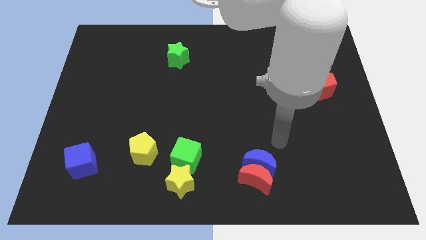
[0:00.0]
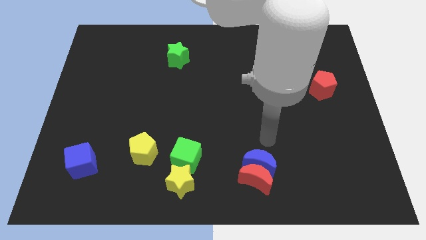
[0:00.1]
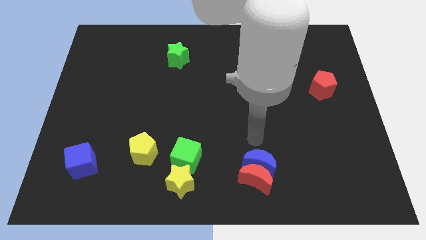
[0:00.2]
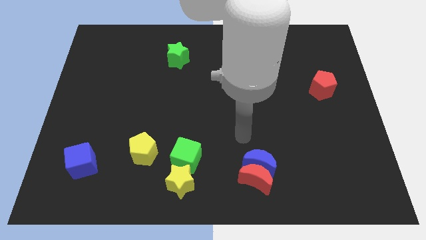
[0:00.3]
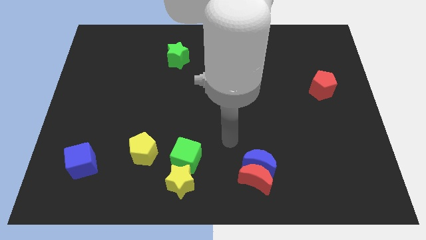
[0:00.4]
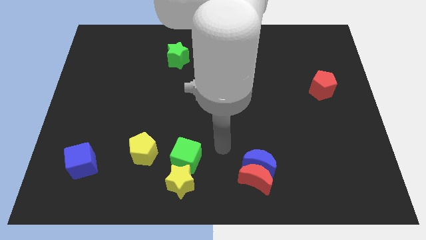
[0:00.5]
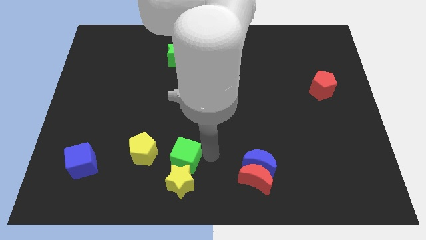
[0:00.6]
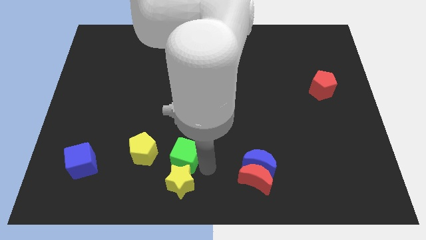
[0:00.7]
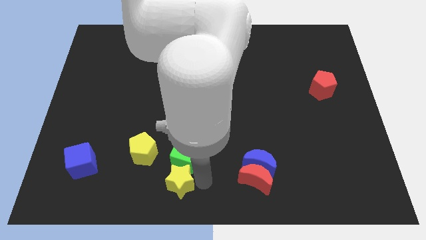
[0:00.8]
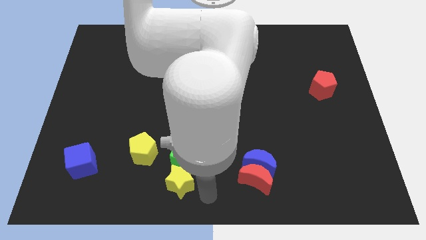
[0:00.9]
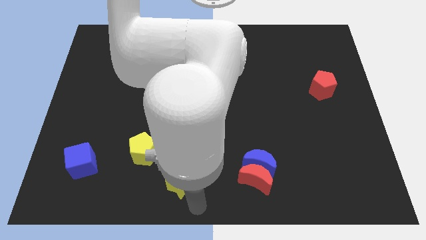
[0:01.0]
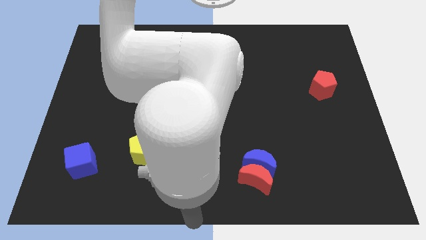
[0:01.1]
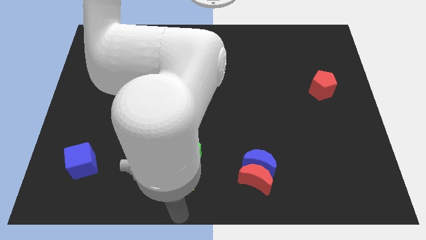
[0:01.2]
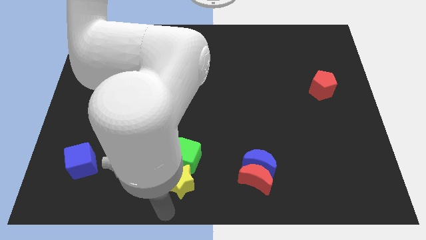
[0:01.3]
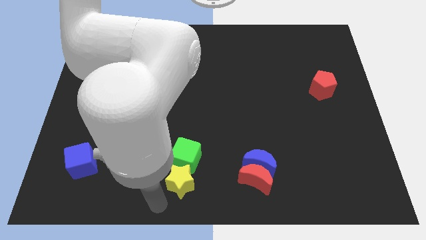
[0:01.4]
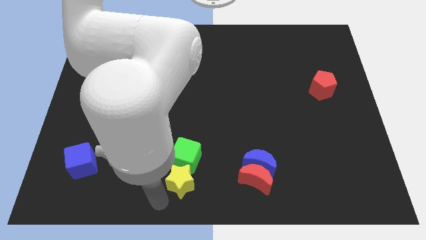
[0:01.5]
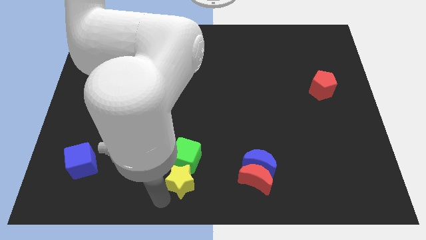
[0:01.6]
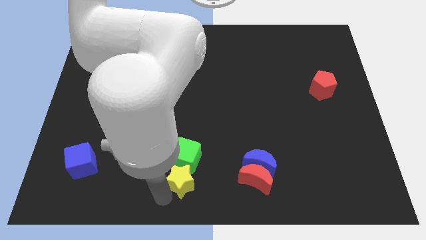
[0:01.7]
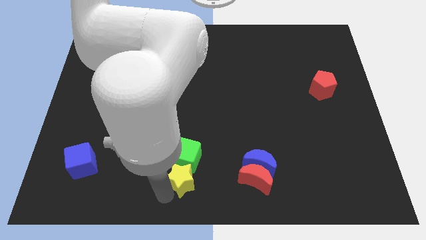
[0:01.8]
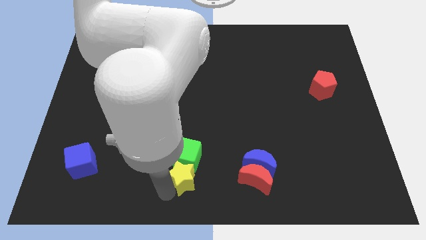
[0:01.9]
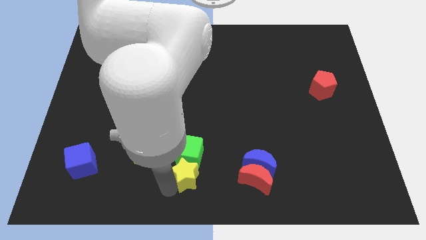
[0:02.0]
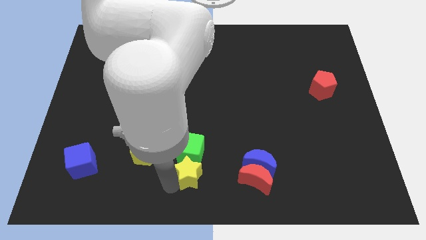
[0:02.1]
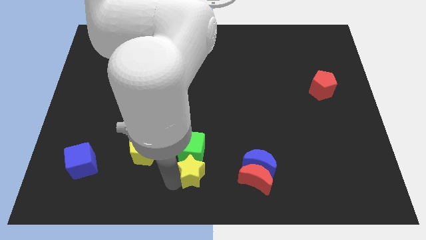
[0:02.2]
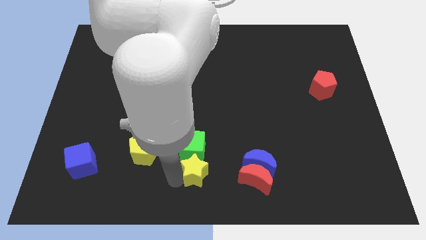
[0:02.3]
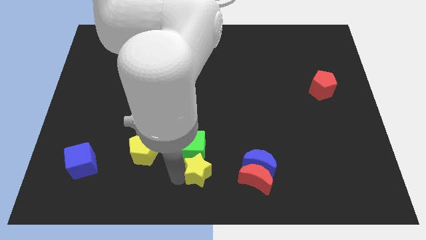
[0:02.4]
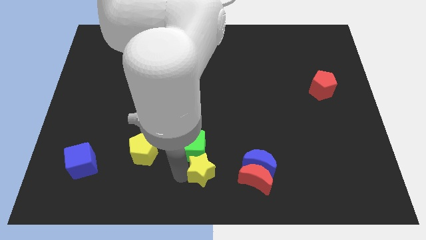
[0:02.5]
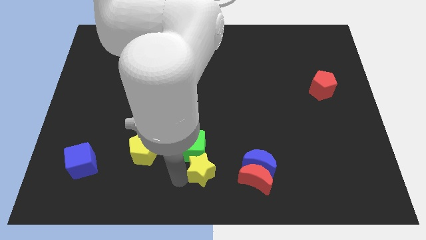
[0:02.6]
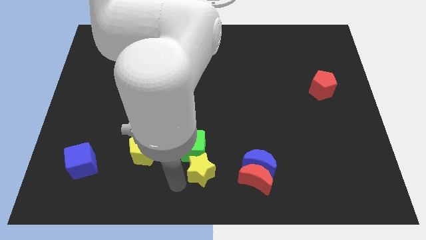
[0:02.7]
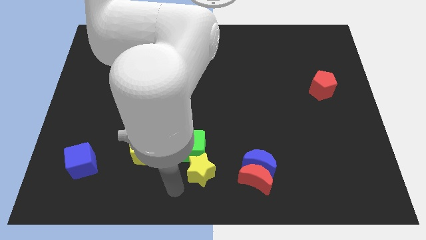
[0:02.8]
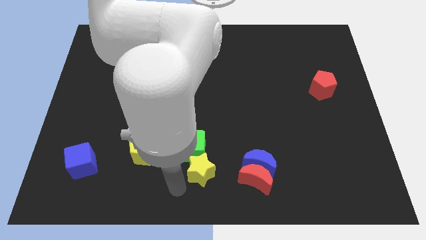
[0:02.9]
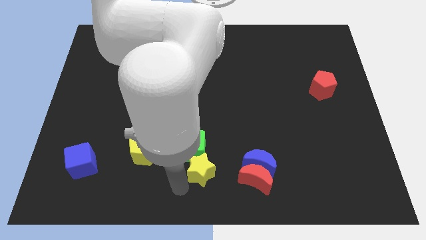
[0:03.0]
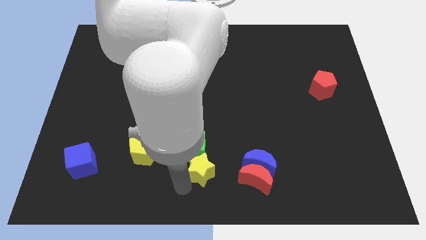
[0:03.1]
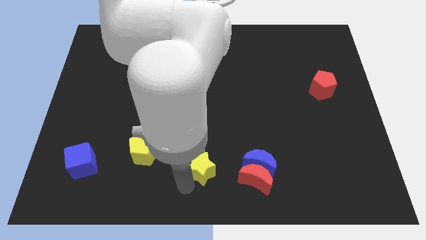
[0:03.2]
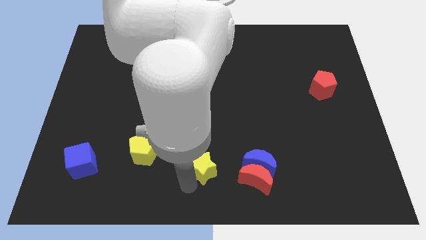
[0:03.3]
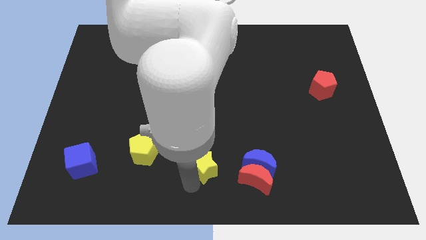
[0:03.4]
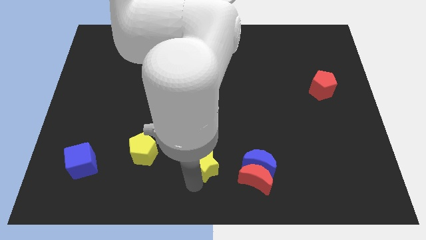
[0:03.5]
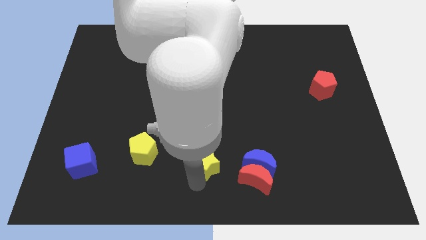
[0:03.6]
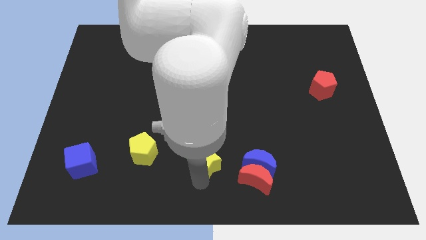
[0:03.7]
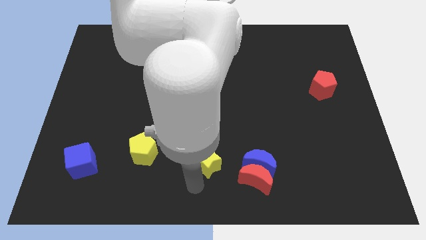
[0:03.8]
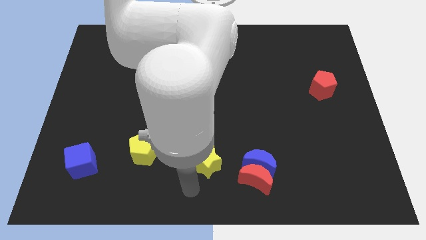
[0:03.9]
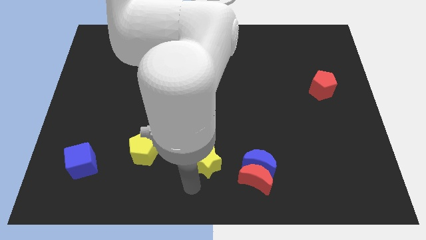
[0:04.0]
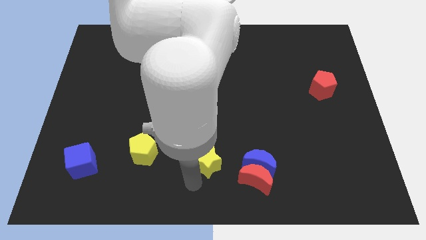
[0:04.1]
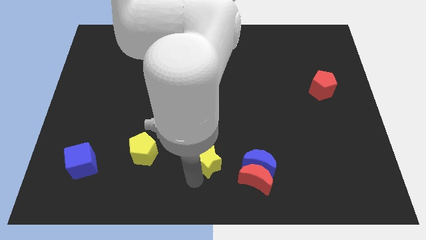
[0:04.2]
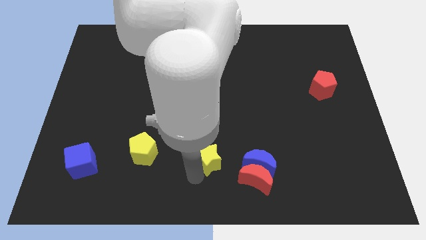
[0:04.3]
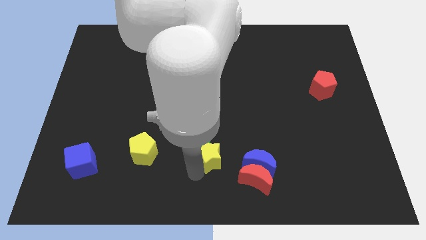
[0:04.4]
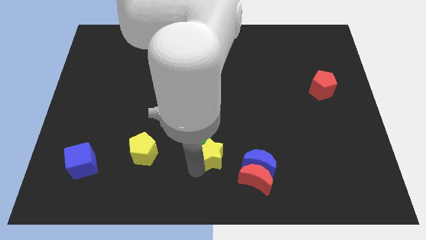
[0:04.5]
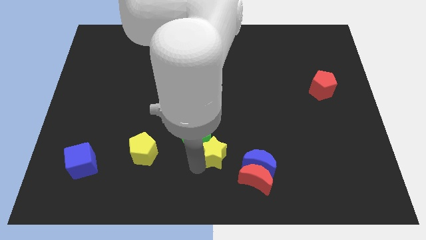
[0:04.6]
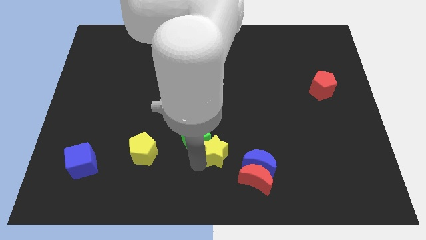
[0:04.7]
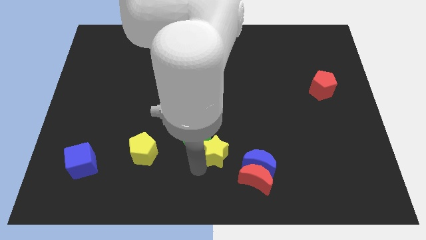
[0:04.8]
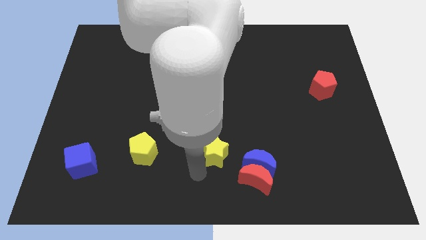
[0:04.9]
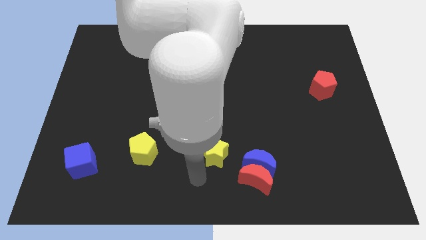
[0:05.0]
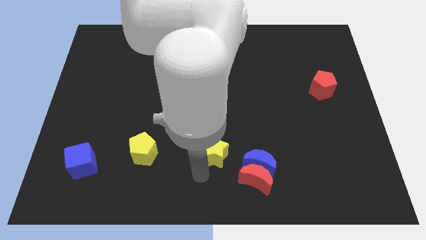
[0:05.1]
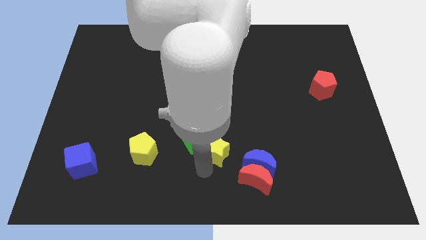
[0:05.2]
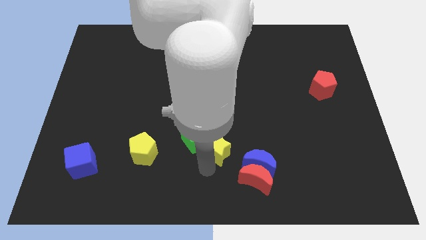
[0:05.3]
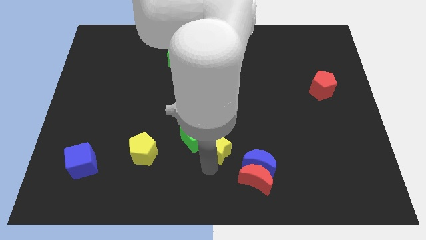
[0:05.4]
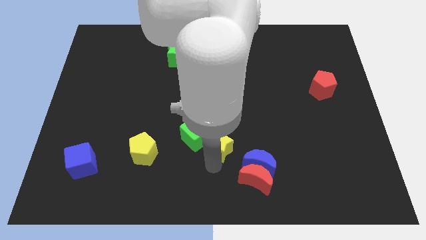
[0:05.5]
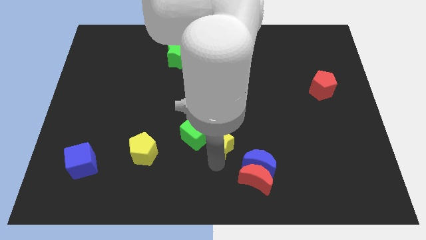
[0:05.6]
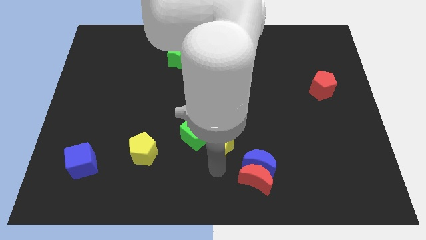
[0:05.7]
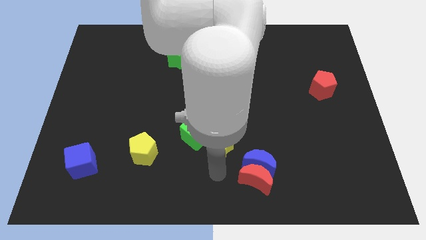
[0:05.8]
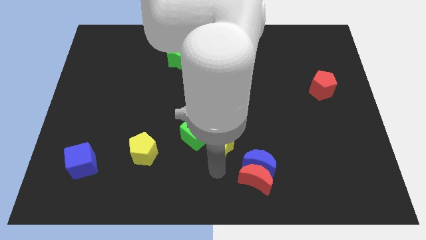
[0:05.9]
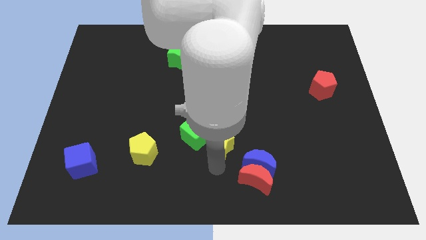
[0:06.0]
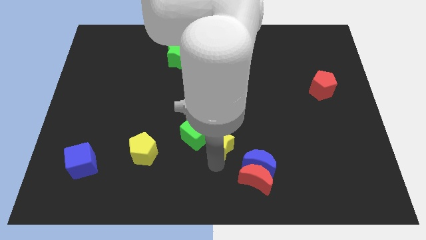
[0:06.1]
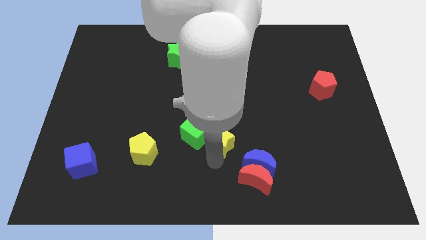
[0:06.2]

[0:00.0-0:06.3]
push the yellow star to the middle of the board

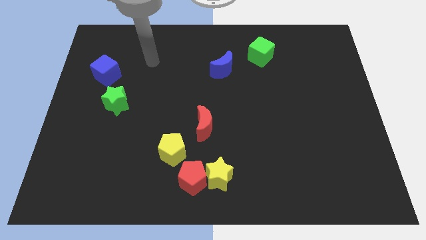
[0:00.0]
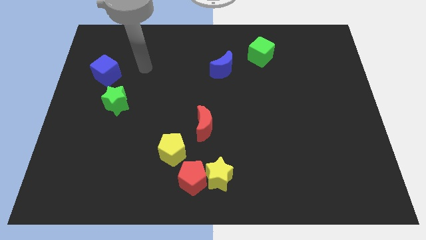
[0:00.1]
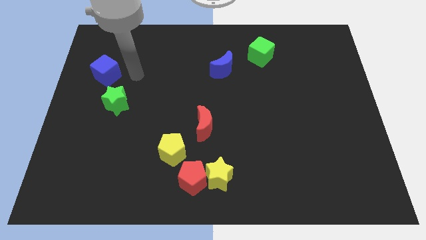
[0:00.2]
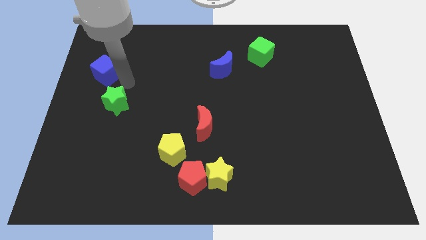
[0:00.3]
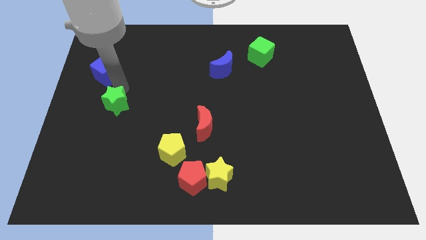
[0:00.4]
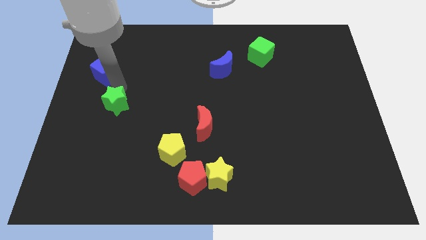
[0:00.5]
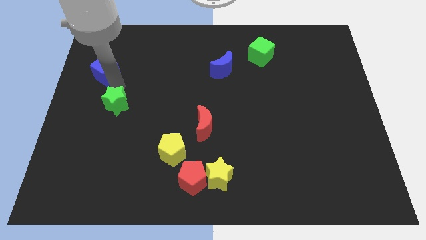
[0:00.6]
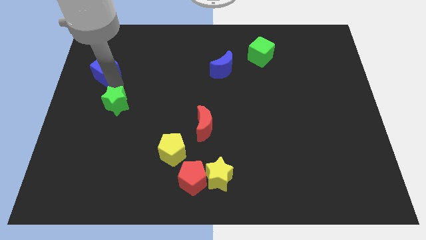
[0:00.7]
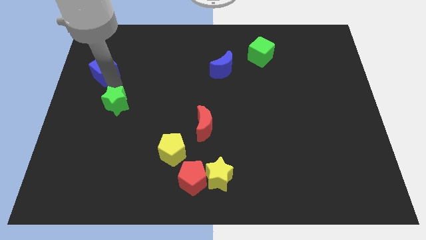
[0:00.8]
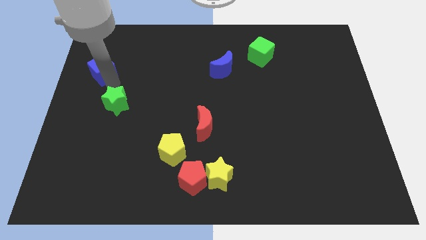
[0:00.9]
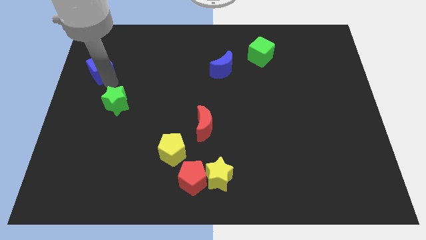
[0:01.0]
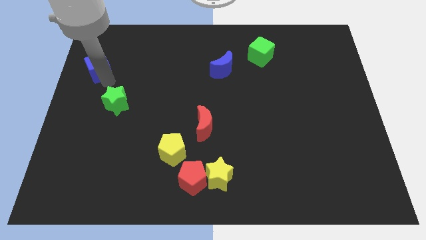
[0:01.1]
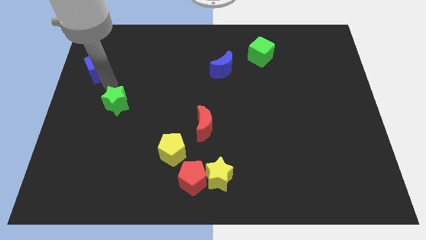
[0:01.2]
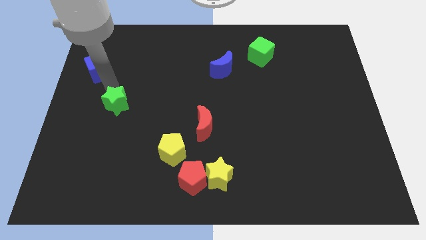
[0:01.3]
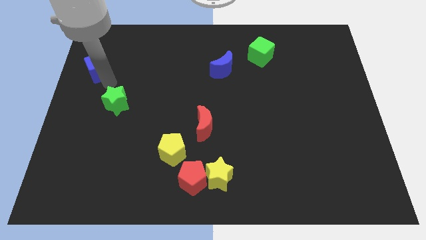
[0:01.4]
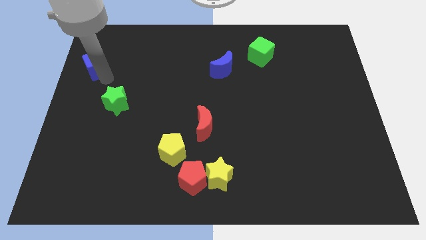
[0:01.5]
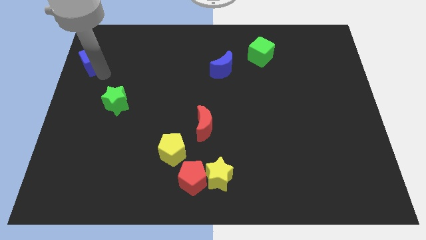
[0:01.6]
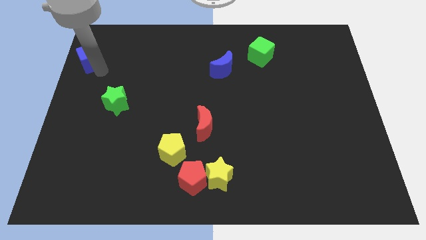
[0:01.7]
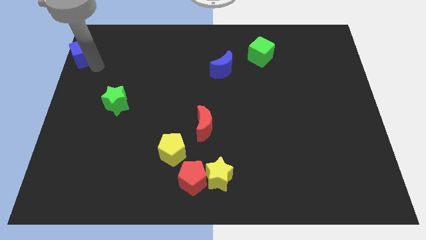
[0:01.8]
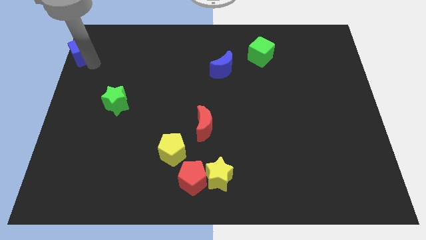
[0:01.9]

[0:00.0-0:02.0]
move the blue cube to the top left of the board
